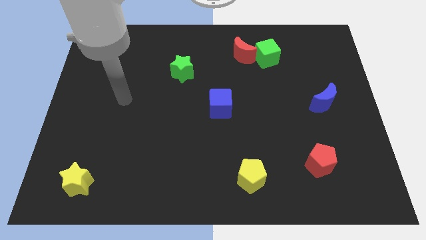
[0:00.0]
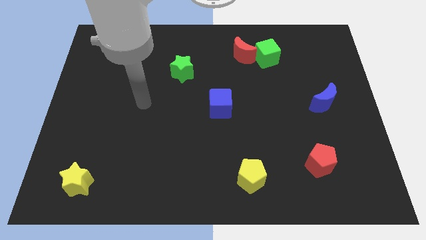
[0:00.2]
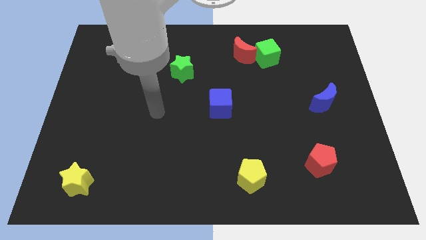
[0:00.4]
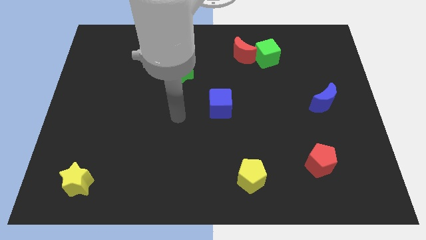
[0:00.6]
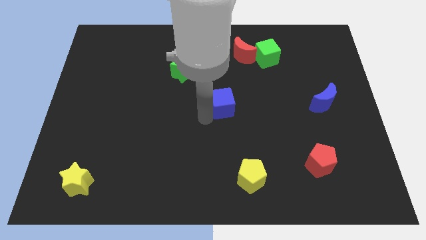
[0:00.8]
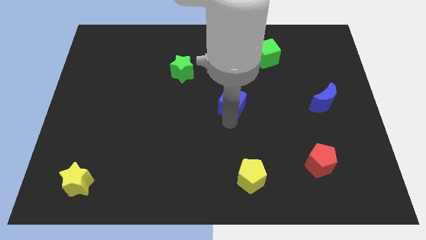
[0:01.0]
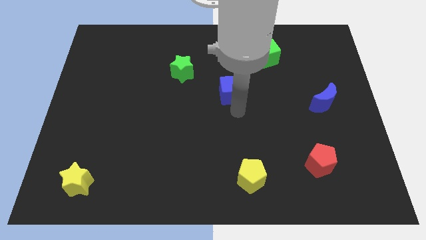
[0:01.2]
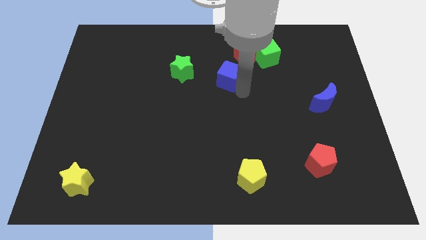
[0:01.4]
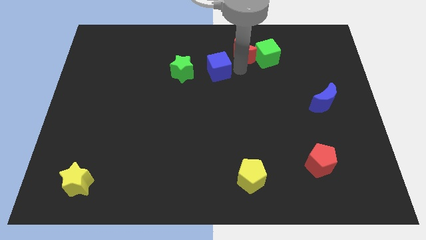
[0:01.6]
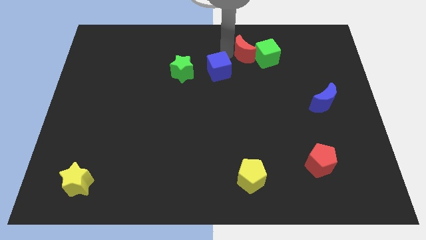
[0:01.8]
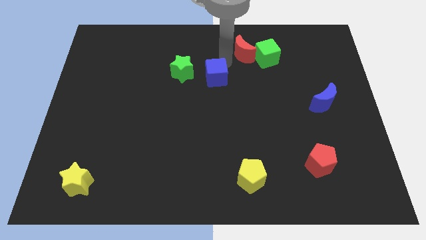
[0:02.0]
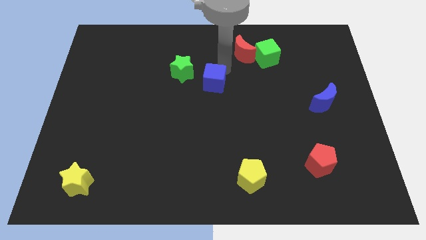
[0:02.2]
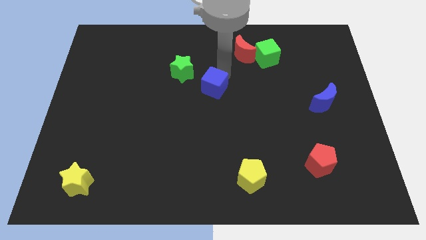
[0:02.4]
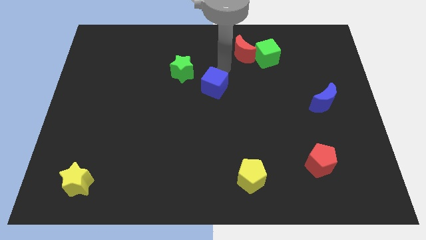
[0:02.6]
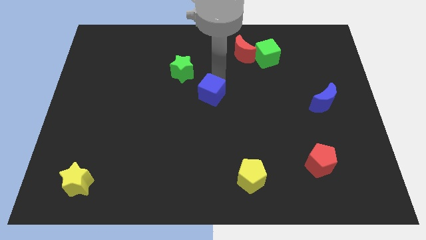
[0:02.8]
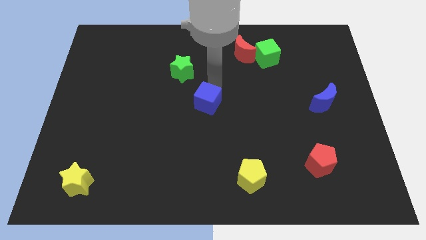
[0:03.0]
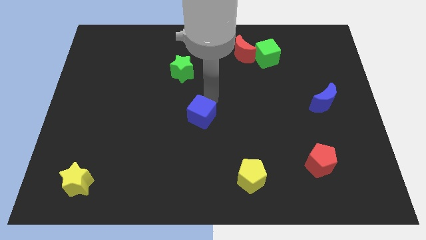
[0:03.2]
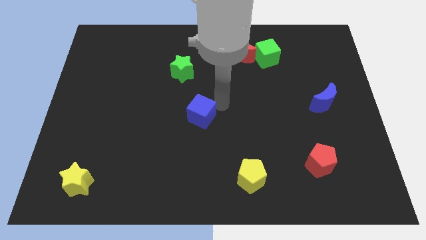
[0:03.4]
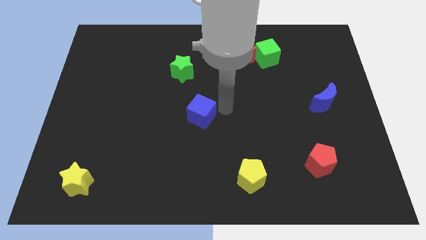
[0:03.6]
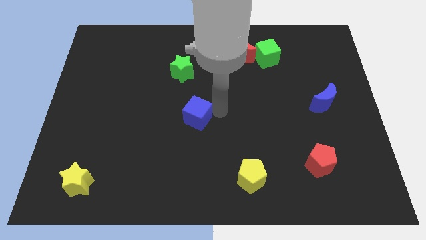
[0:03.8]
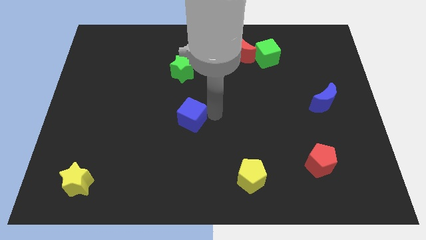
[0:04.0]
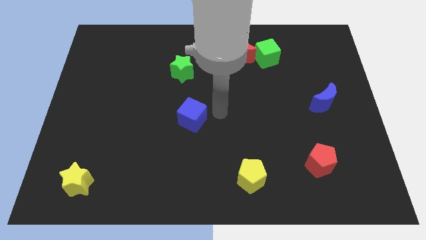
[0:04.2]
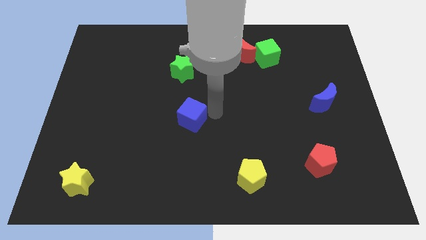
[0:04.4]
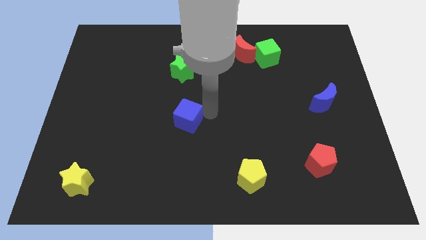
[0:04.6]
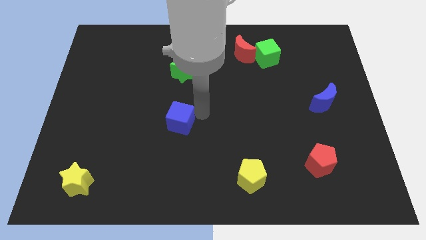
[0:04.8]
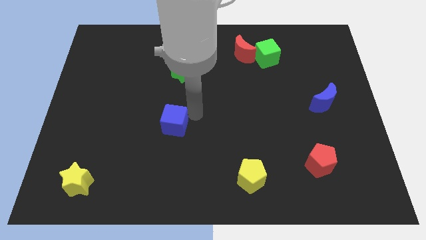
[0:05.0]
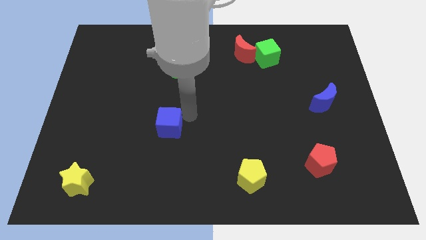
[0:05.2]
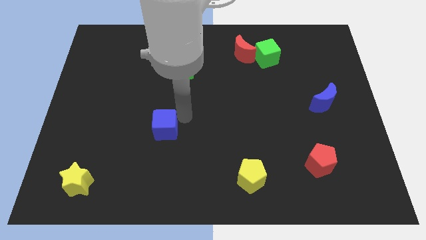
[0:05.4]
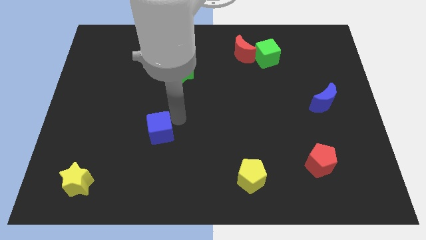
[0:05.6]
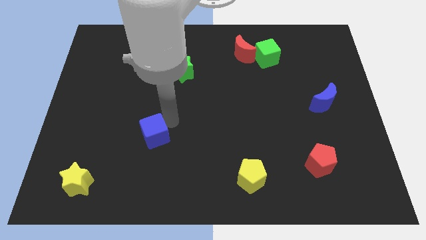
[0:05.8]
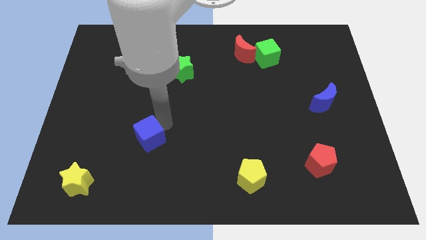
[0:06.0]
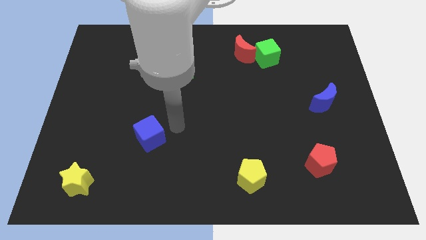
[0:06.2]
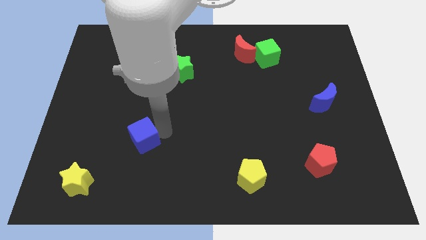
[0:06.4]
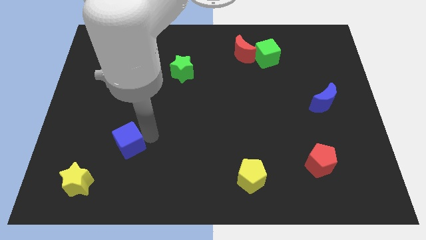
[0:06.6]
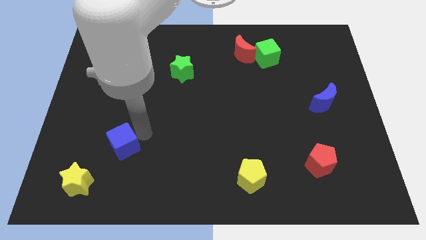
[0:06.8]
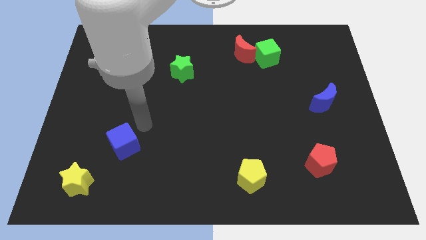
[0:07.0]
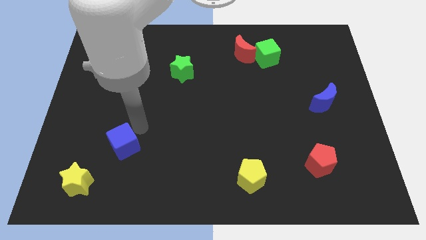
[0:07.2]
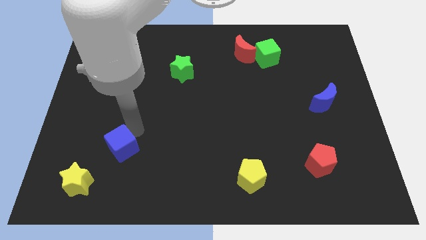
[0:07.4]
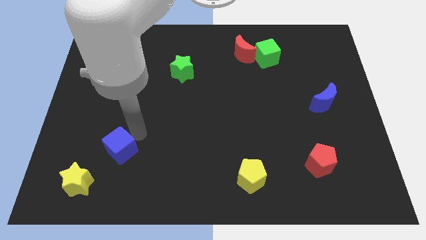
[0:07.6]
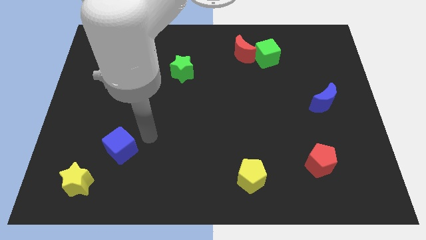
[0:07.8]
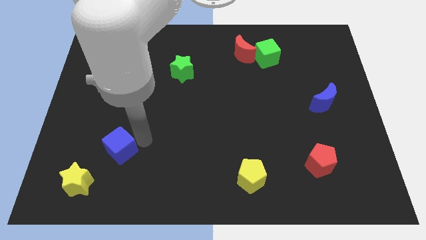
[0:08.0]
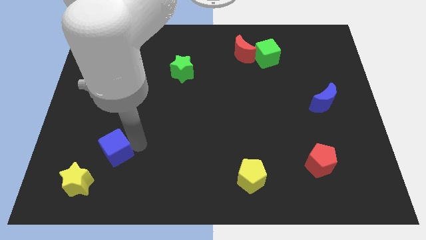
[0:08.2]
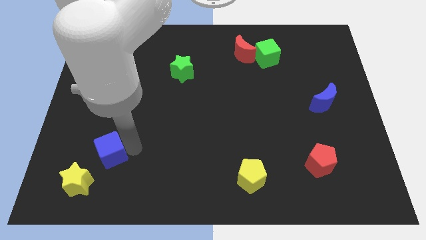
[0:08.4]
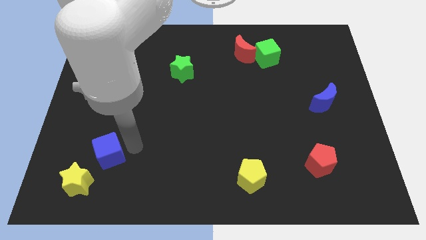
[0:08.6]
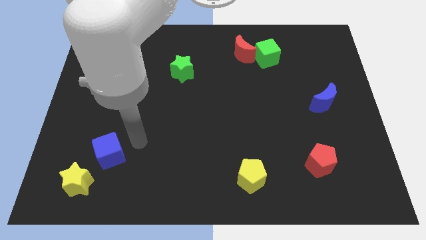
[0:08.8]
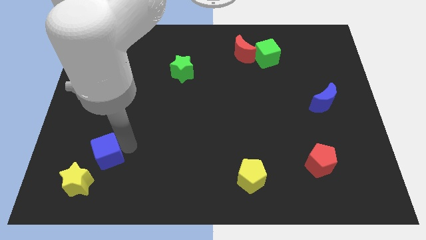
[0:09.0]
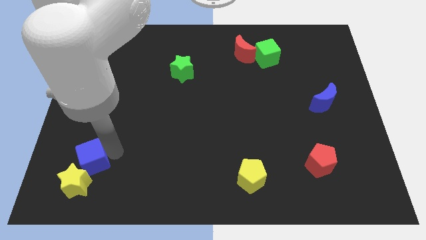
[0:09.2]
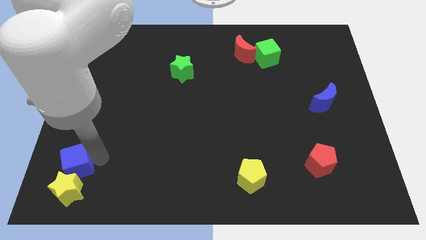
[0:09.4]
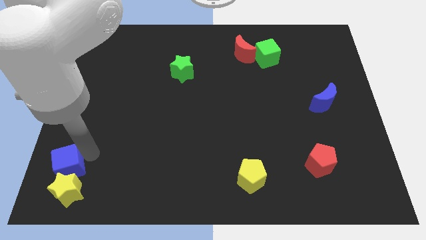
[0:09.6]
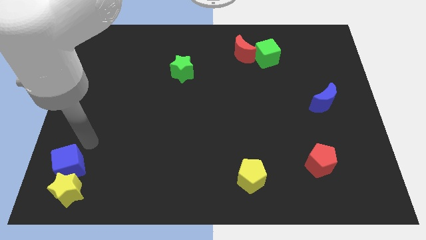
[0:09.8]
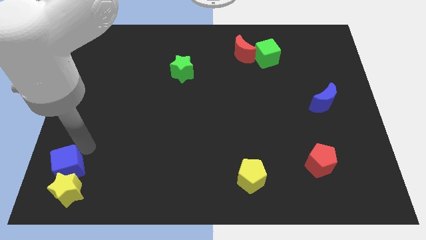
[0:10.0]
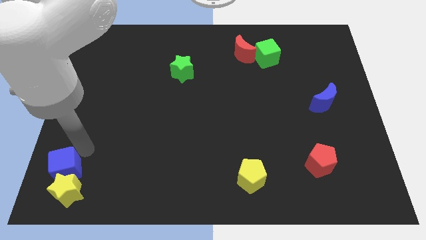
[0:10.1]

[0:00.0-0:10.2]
slide the blue cube to the bottom left

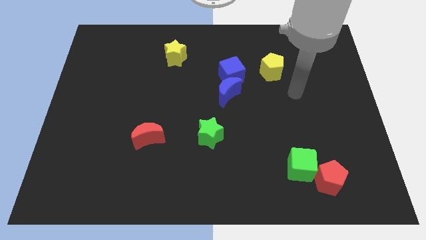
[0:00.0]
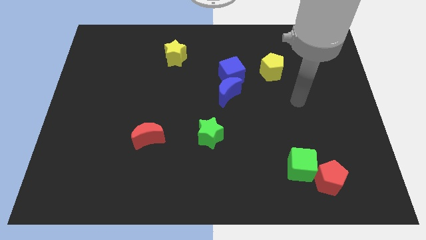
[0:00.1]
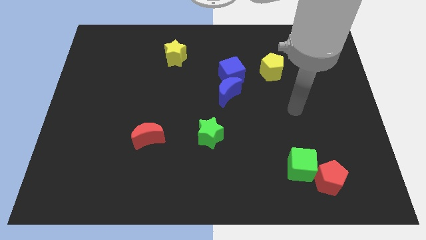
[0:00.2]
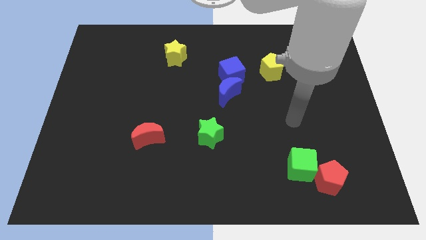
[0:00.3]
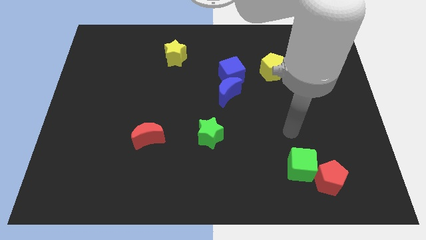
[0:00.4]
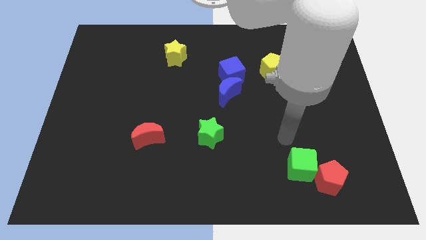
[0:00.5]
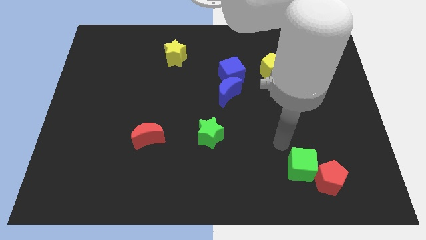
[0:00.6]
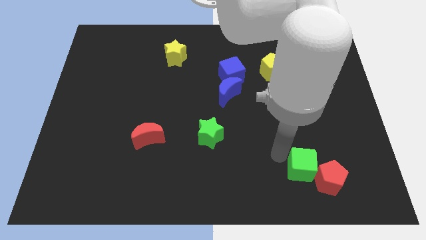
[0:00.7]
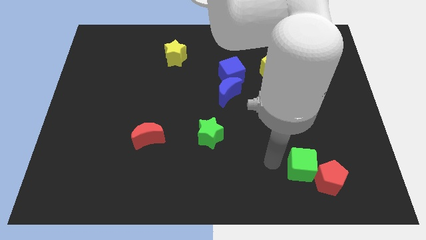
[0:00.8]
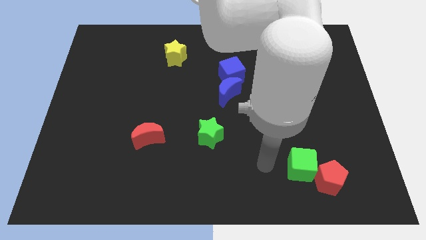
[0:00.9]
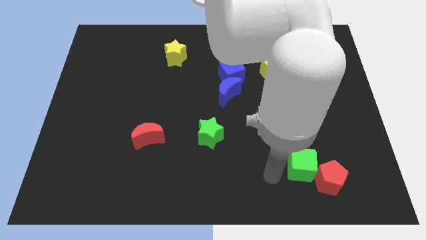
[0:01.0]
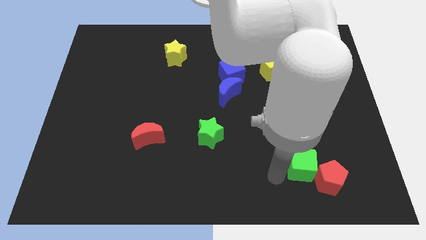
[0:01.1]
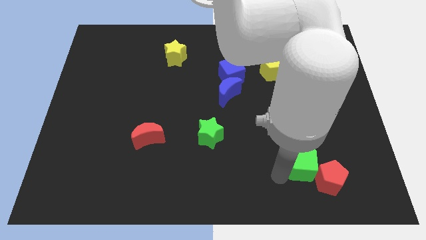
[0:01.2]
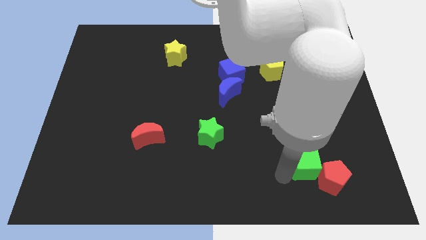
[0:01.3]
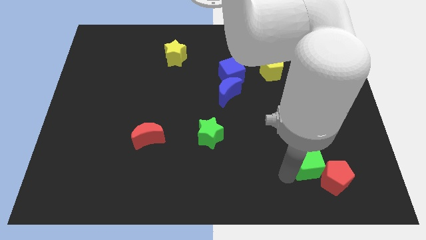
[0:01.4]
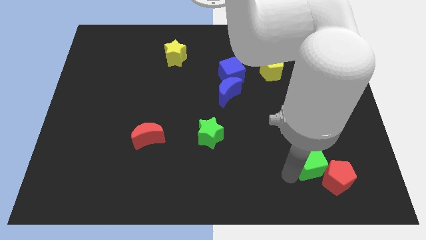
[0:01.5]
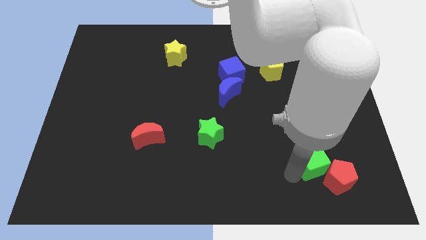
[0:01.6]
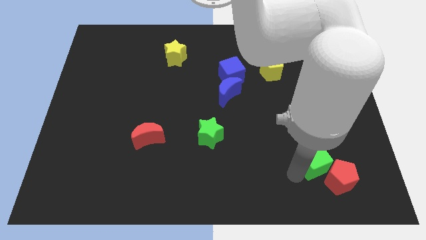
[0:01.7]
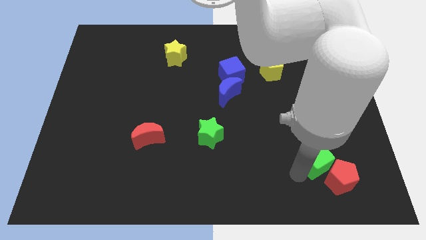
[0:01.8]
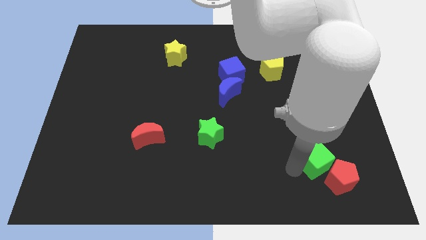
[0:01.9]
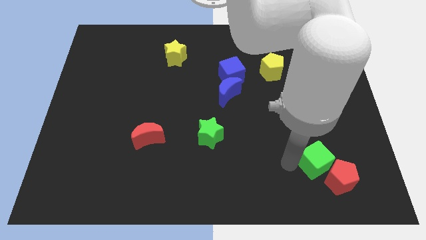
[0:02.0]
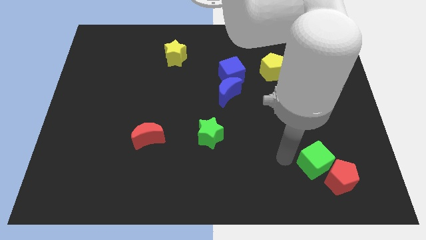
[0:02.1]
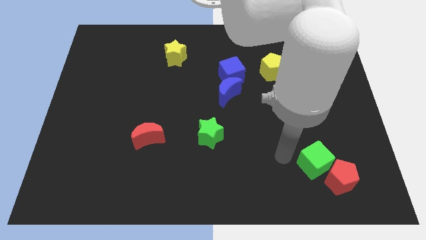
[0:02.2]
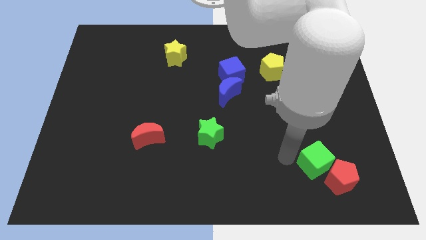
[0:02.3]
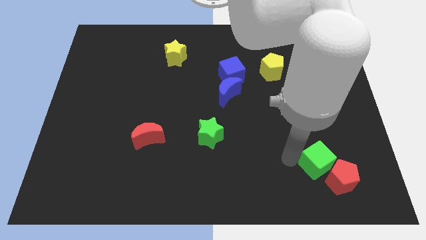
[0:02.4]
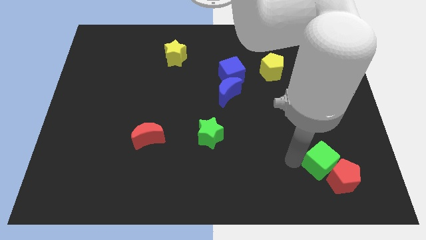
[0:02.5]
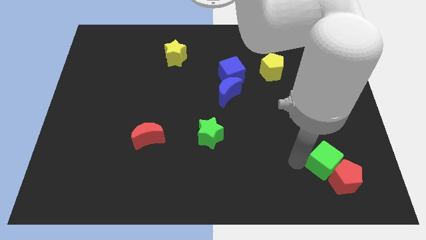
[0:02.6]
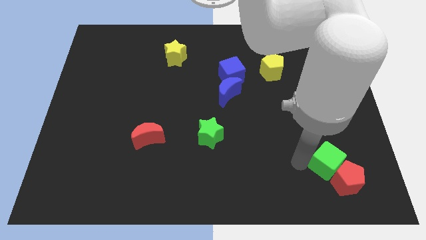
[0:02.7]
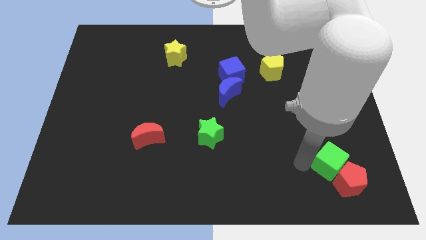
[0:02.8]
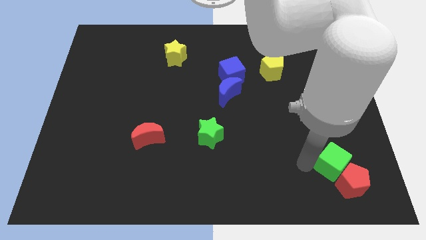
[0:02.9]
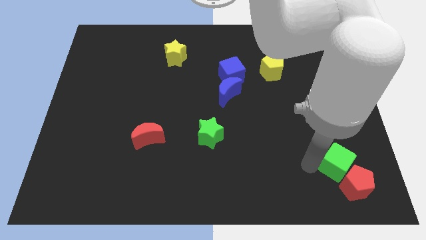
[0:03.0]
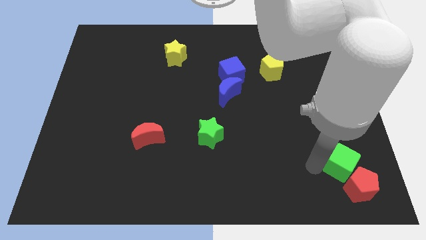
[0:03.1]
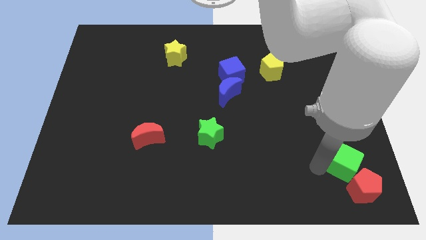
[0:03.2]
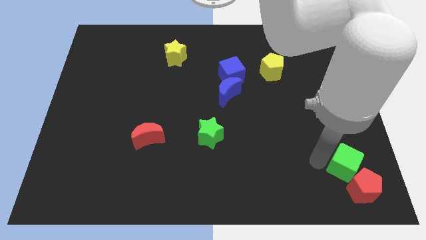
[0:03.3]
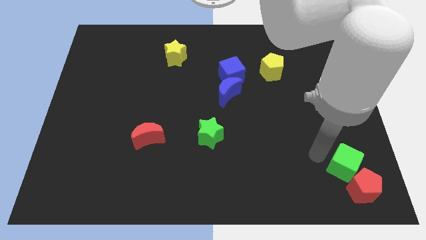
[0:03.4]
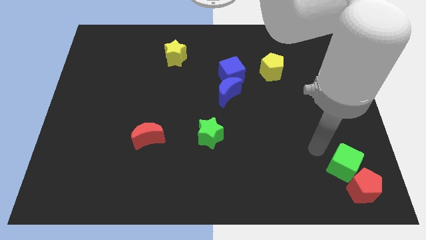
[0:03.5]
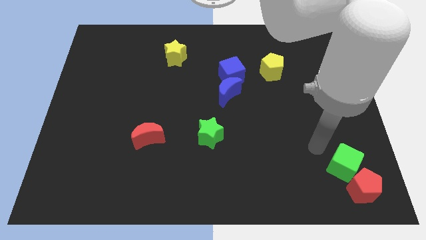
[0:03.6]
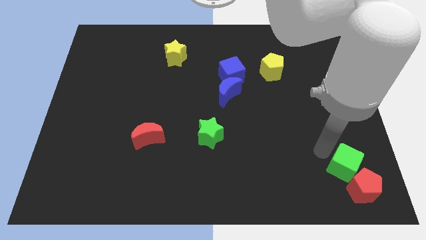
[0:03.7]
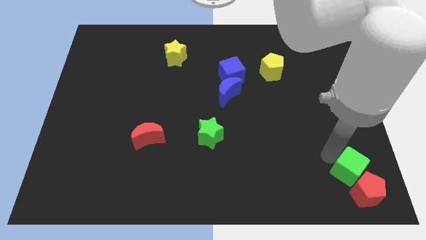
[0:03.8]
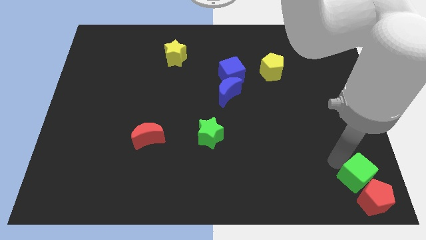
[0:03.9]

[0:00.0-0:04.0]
push the green cube to the lower right corner
